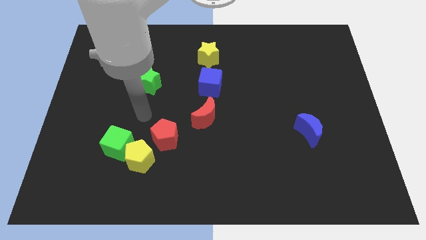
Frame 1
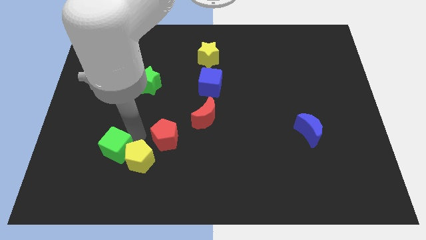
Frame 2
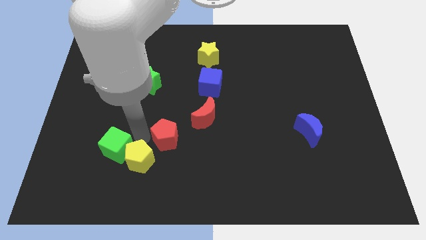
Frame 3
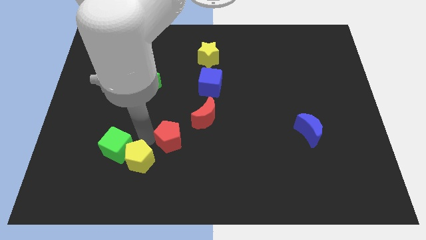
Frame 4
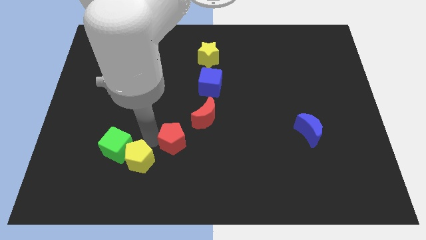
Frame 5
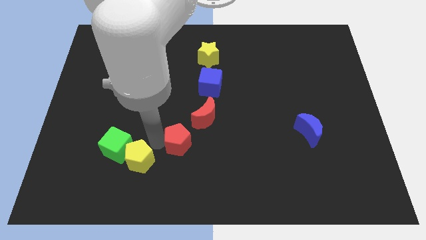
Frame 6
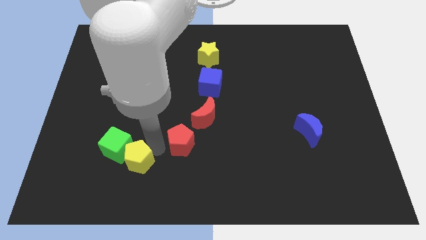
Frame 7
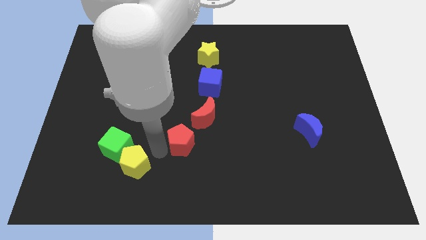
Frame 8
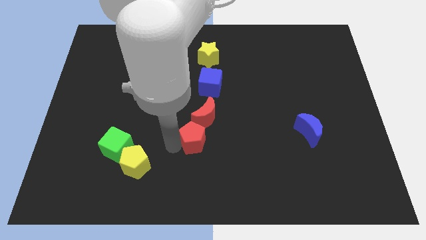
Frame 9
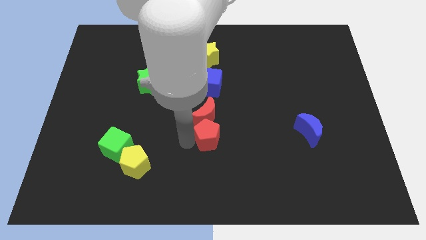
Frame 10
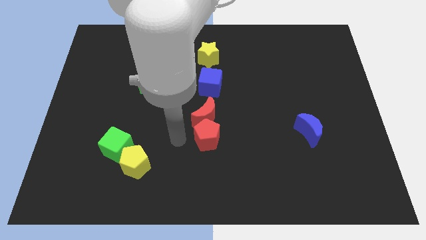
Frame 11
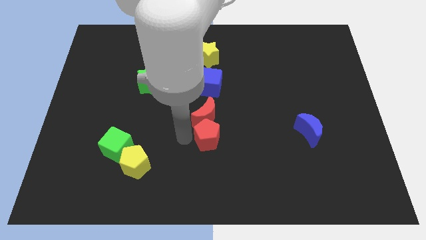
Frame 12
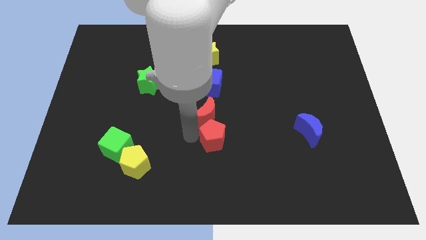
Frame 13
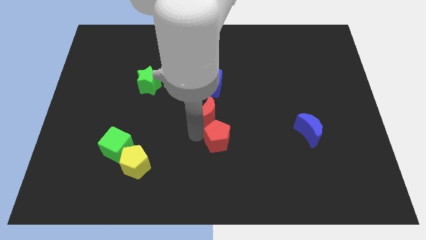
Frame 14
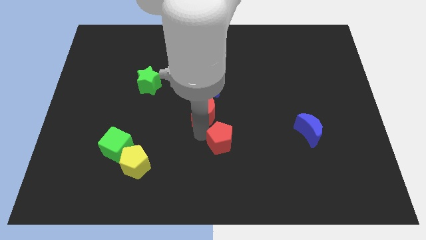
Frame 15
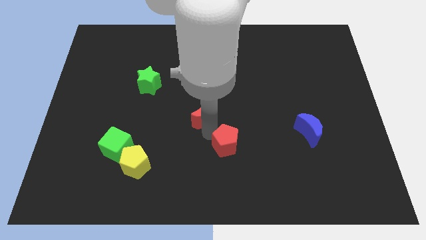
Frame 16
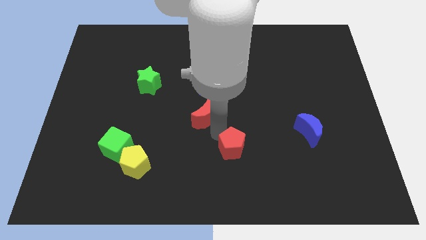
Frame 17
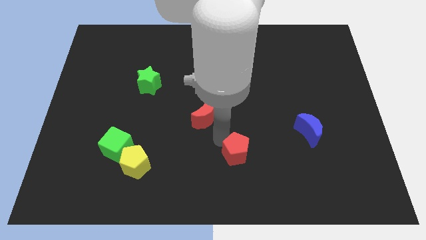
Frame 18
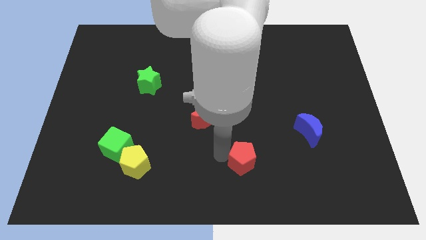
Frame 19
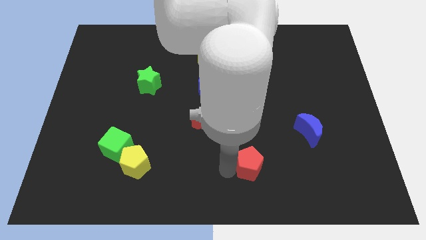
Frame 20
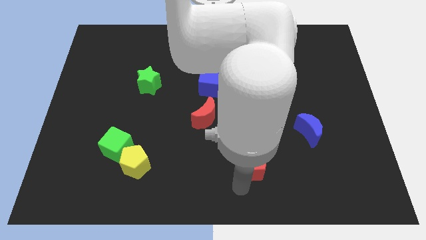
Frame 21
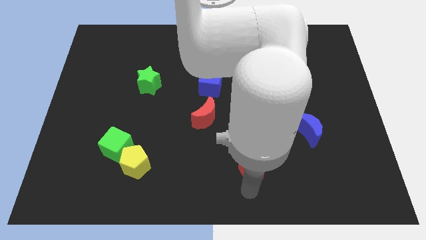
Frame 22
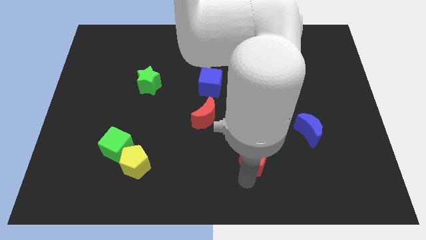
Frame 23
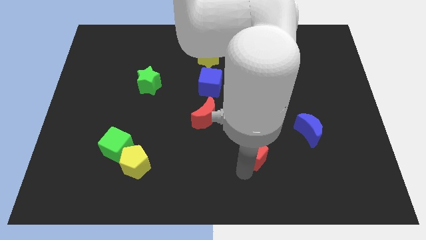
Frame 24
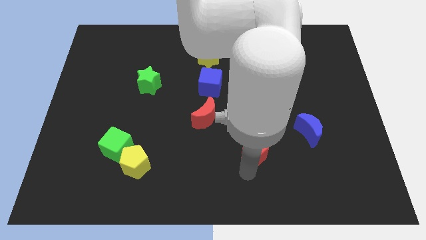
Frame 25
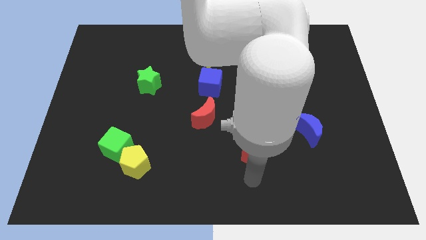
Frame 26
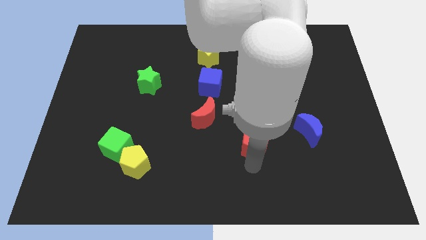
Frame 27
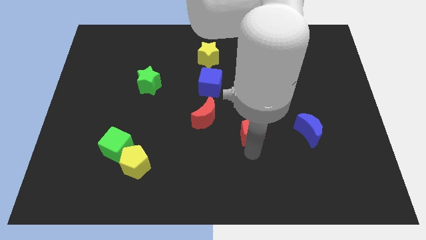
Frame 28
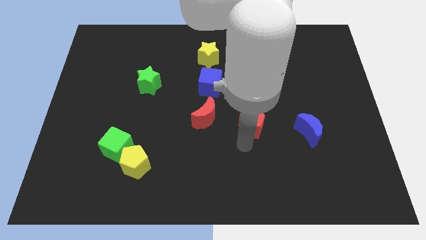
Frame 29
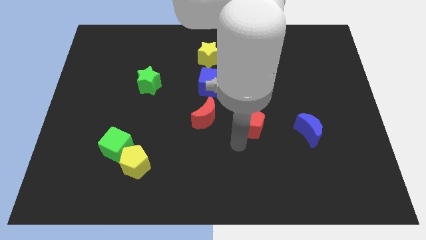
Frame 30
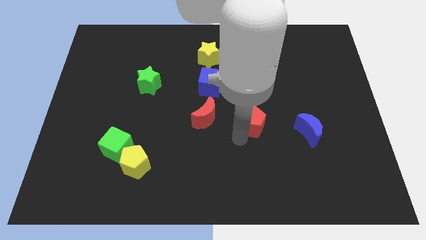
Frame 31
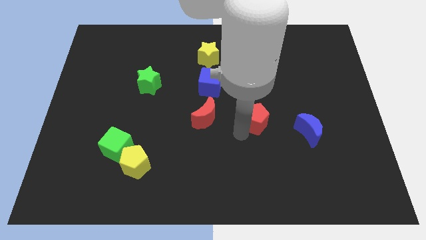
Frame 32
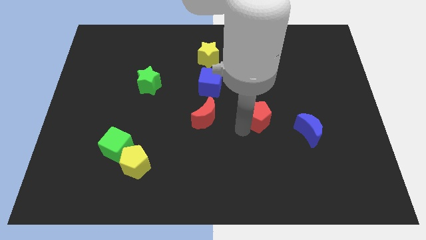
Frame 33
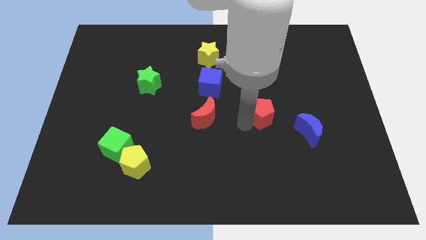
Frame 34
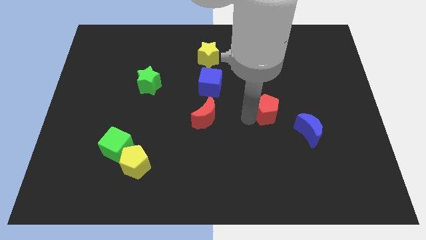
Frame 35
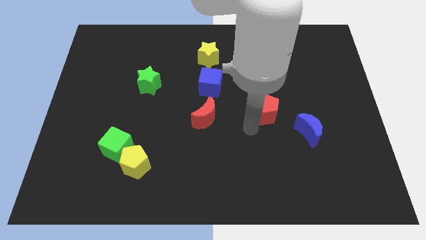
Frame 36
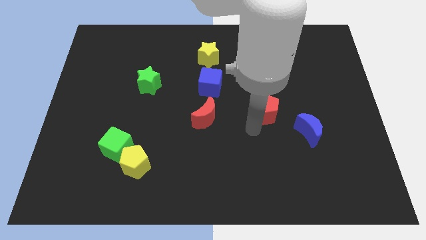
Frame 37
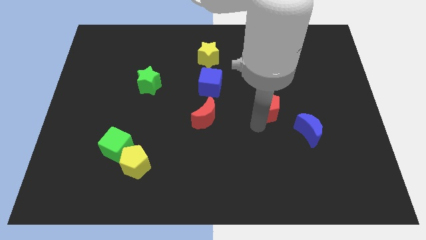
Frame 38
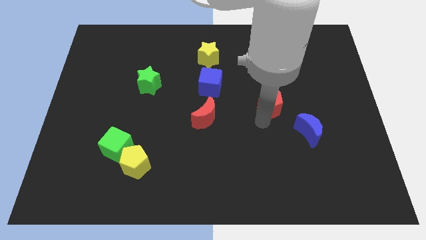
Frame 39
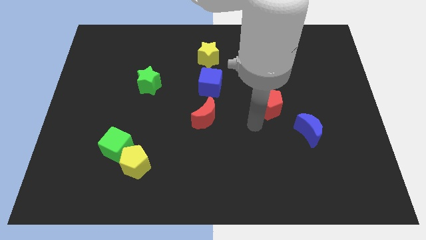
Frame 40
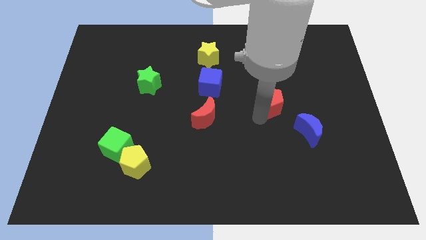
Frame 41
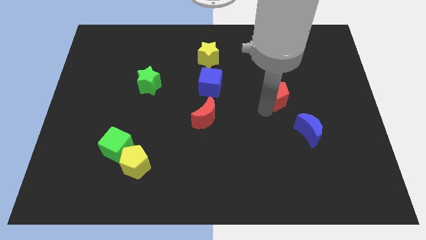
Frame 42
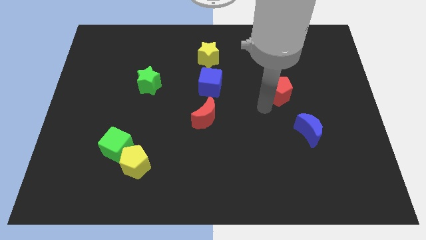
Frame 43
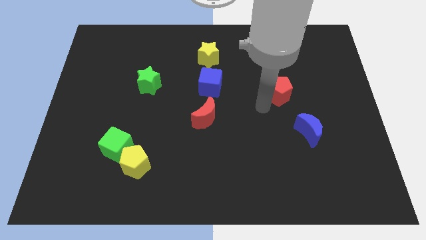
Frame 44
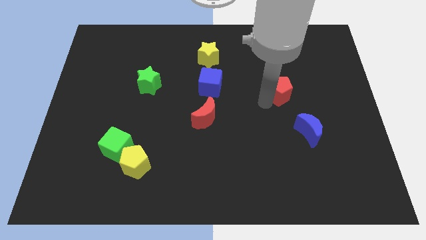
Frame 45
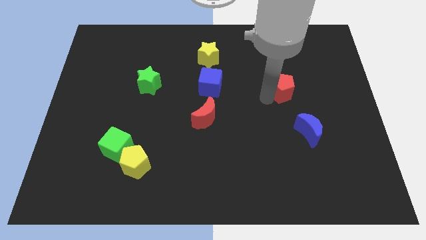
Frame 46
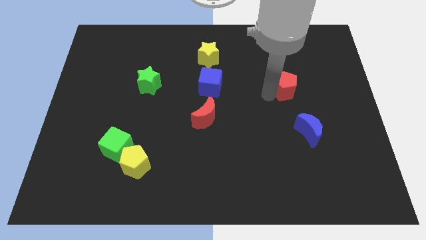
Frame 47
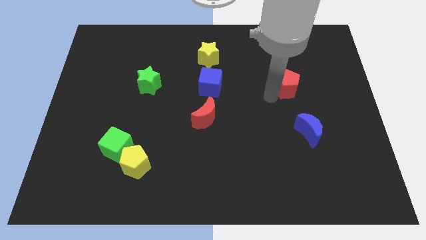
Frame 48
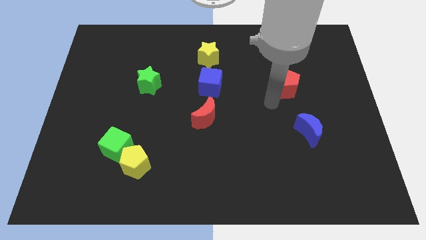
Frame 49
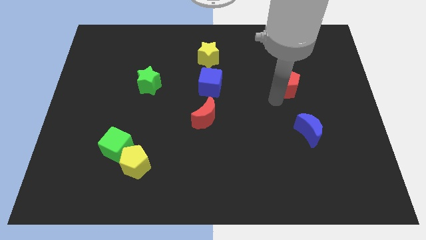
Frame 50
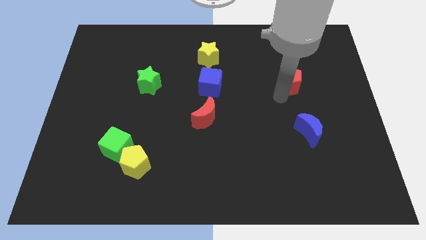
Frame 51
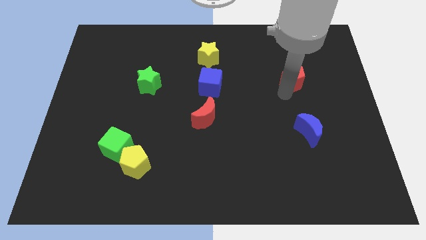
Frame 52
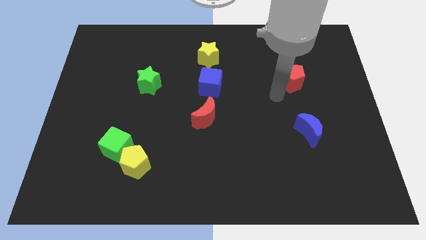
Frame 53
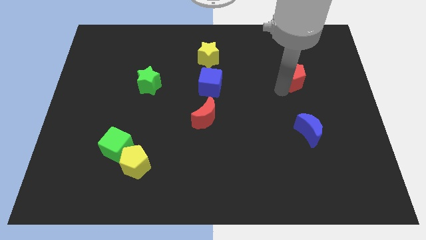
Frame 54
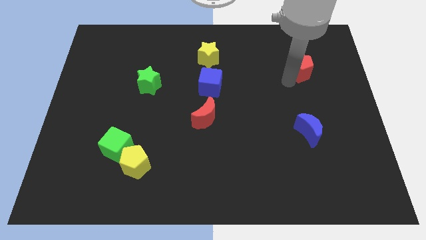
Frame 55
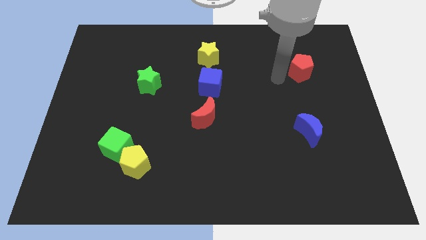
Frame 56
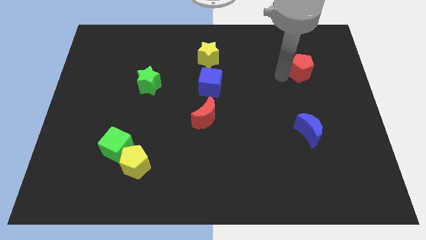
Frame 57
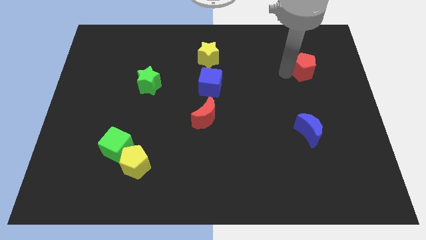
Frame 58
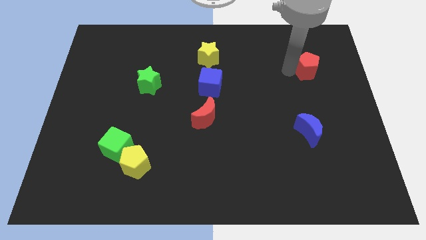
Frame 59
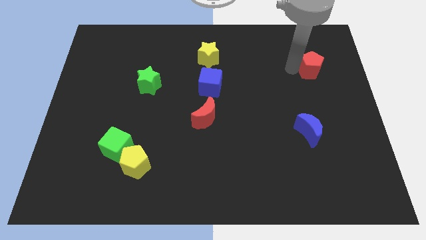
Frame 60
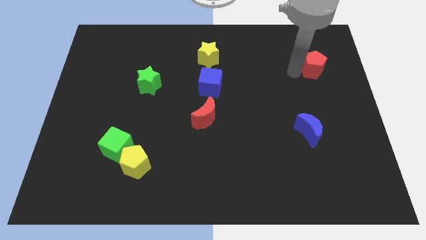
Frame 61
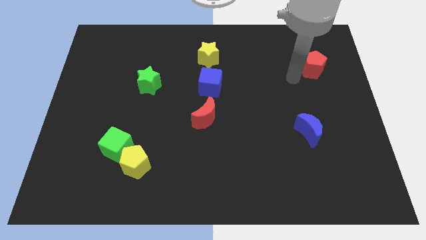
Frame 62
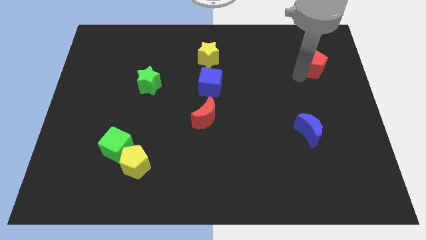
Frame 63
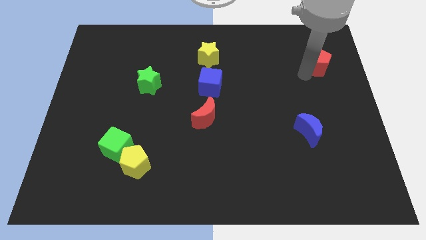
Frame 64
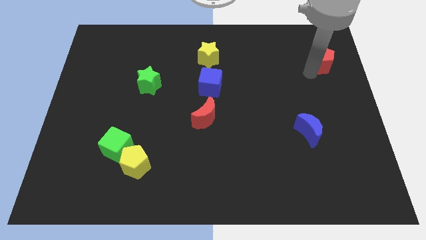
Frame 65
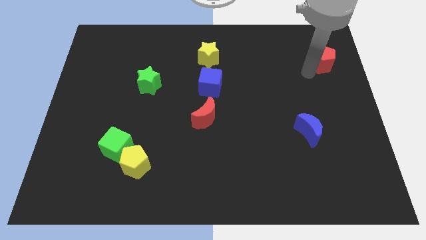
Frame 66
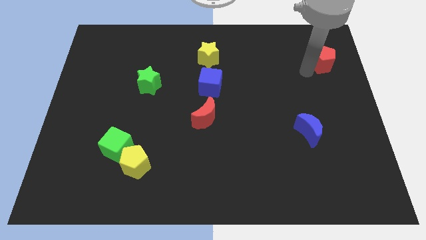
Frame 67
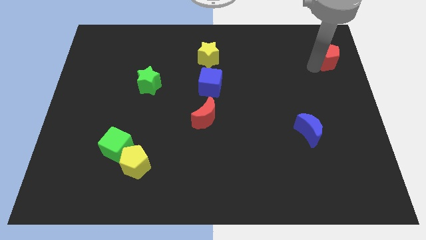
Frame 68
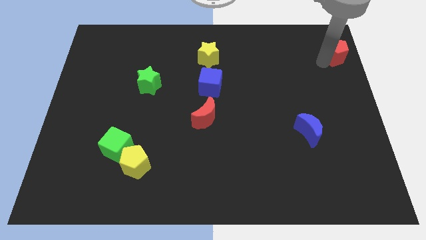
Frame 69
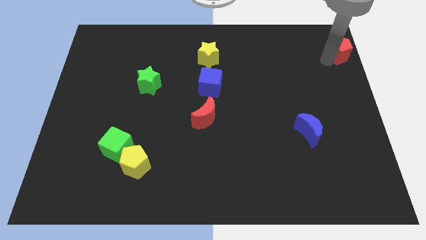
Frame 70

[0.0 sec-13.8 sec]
put the red pentagon to the top right corner
